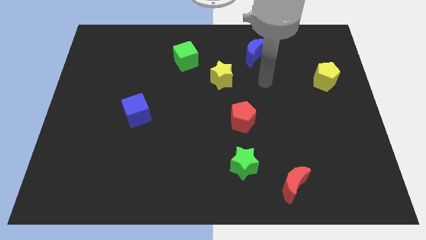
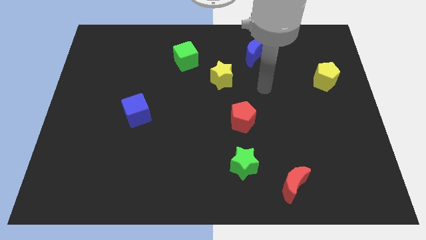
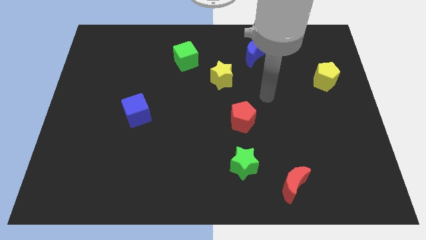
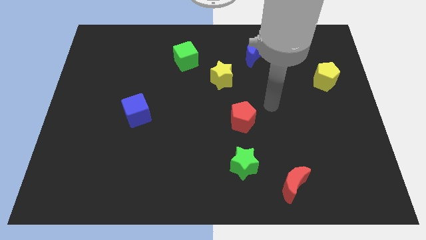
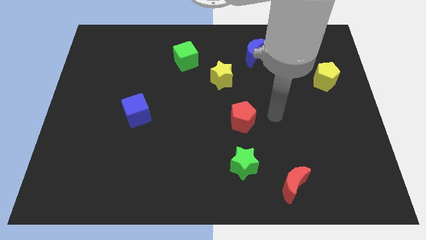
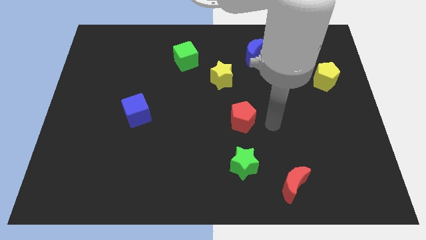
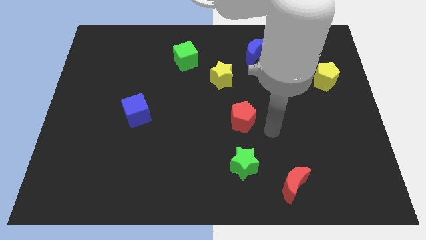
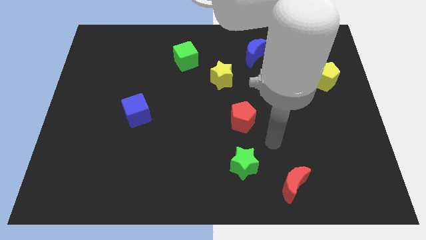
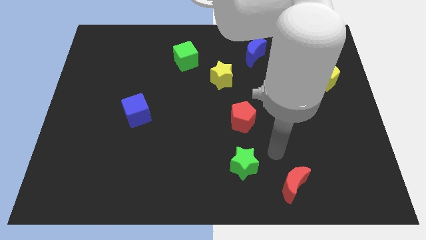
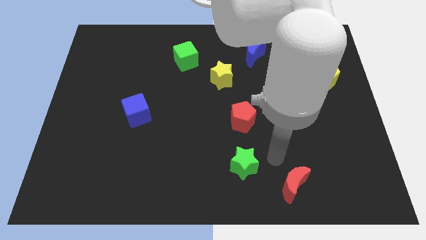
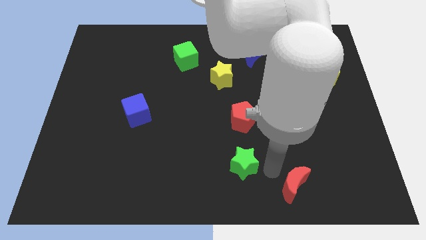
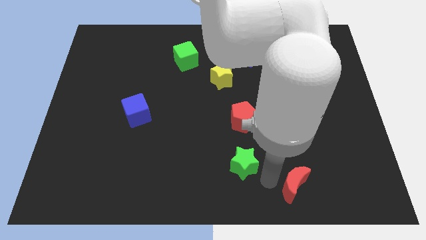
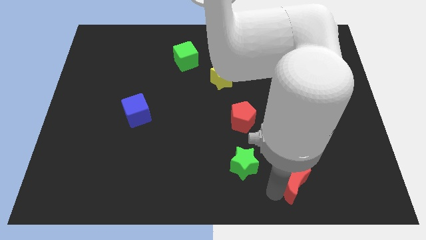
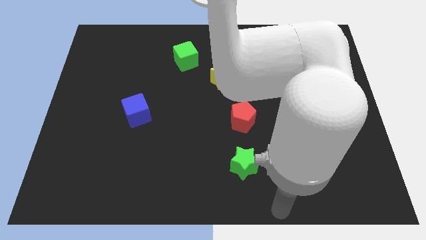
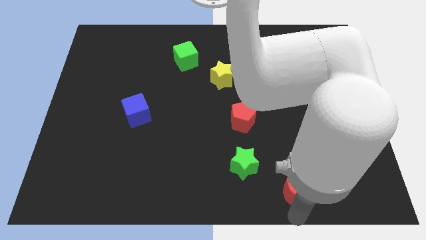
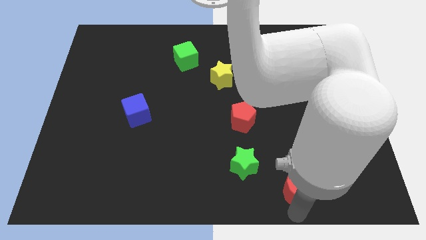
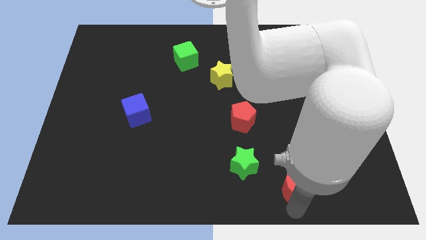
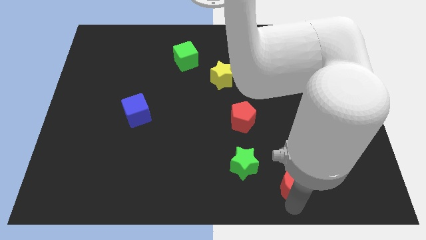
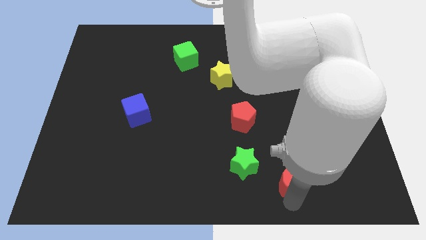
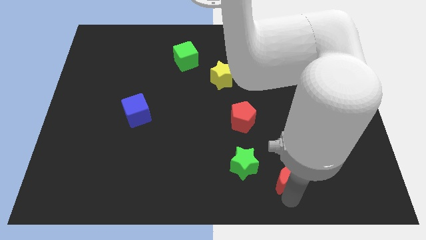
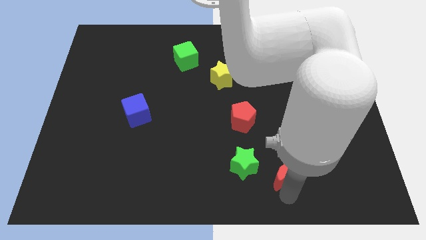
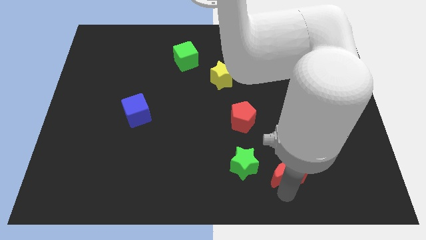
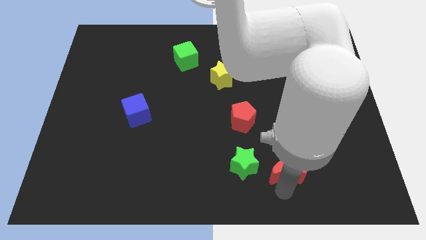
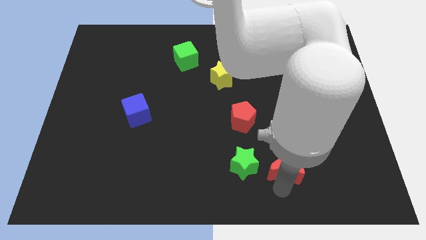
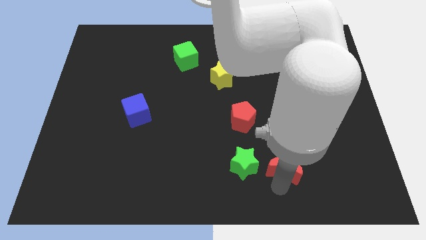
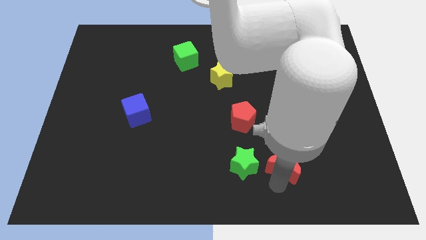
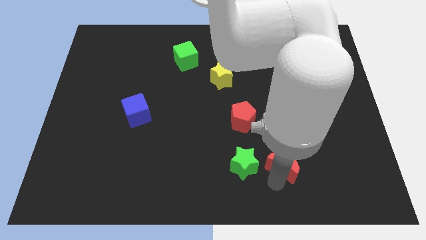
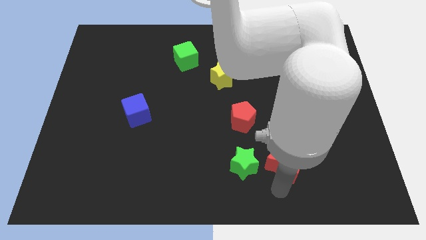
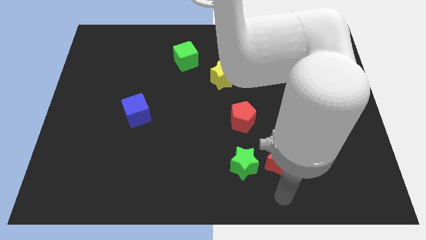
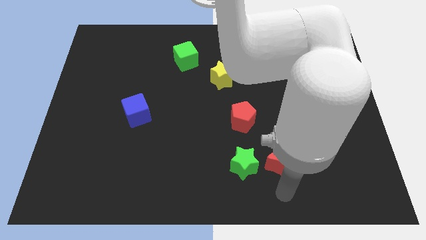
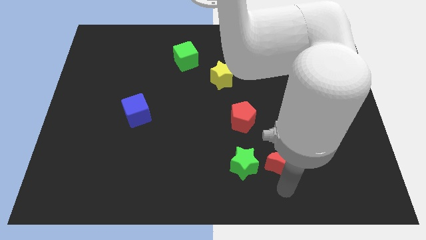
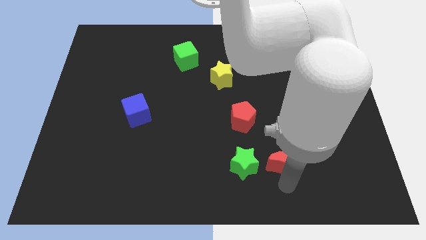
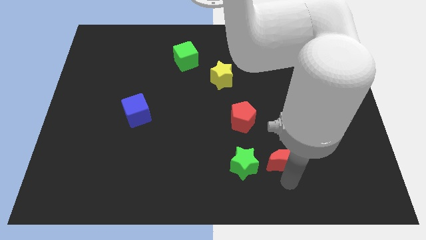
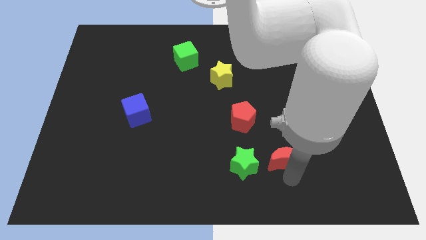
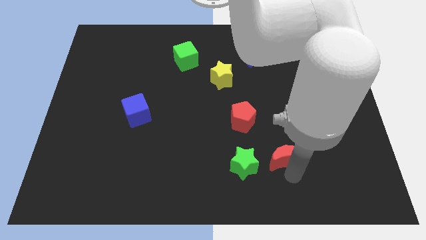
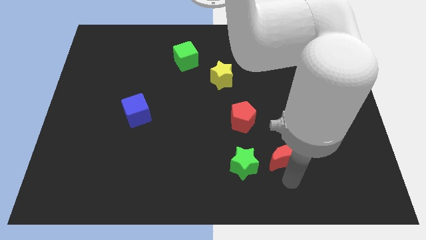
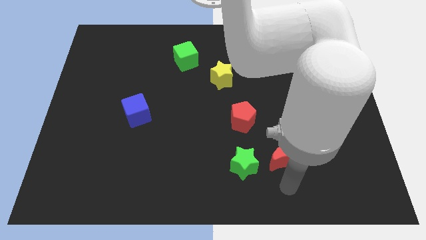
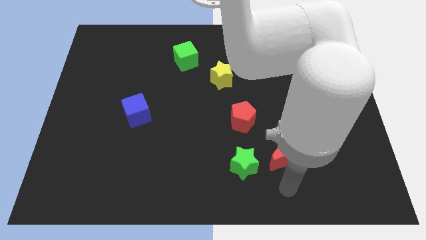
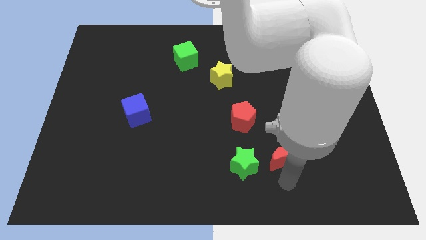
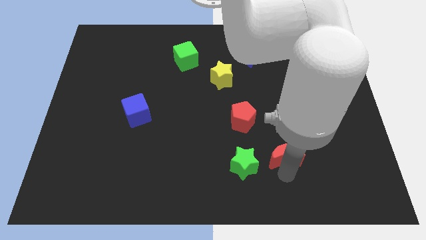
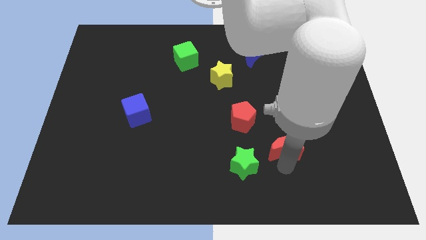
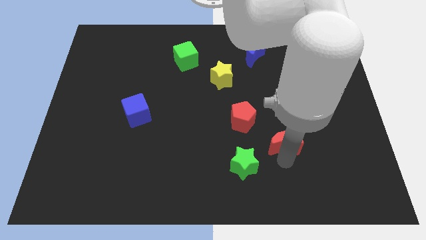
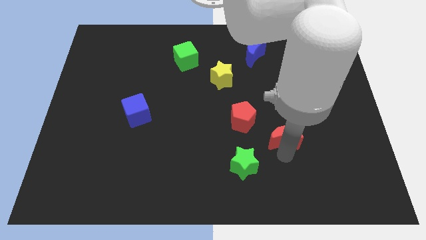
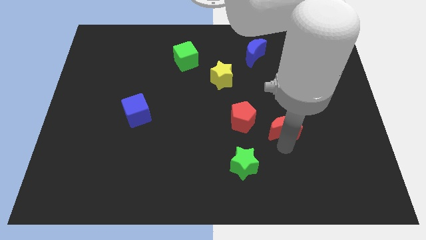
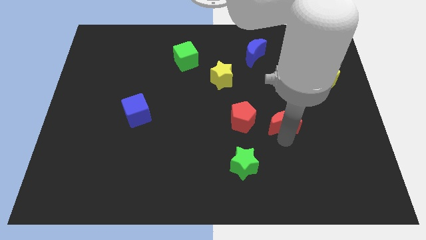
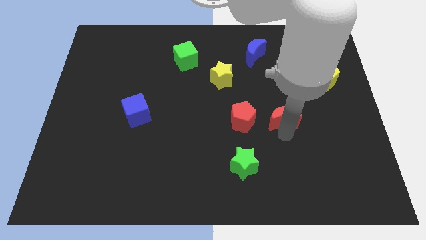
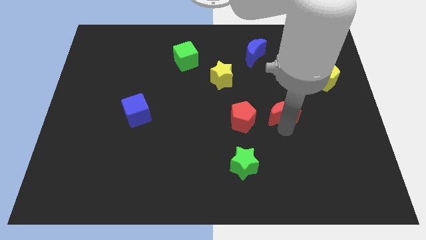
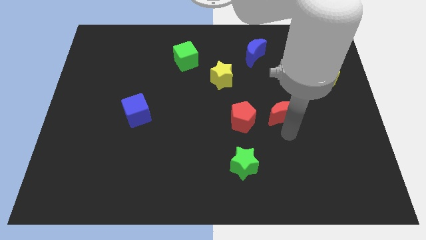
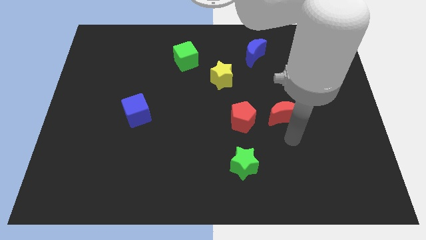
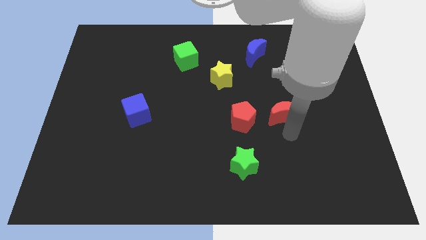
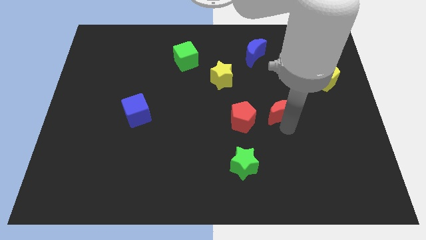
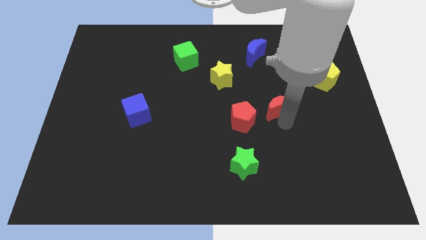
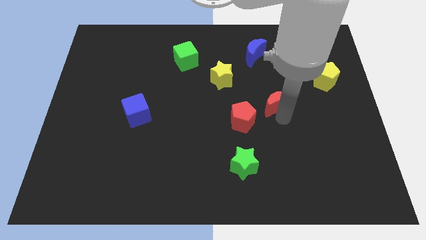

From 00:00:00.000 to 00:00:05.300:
slide the red moon upwards

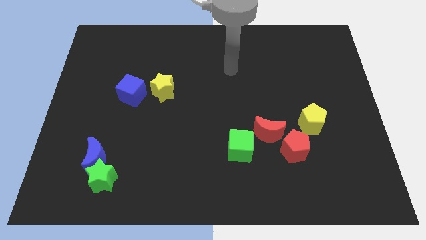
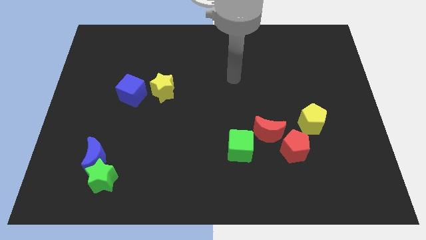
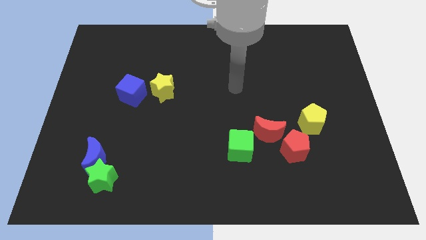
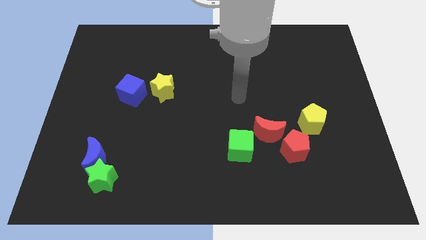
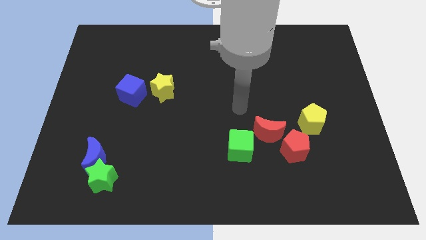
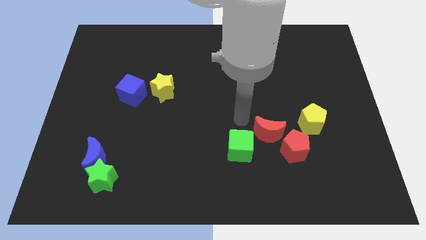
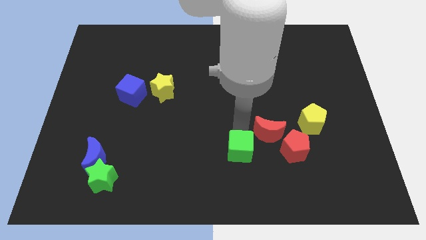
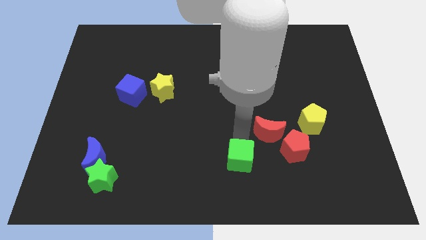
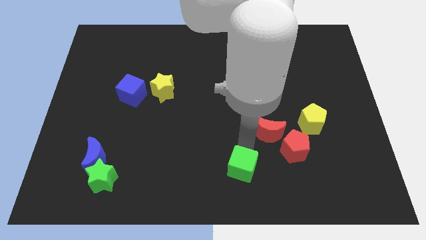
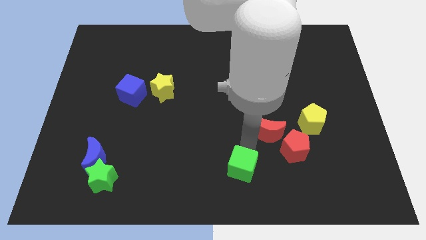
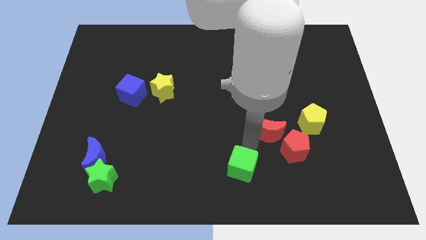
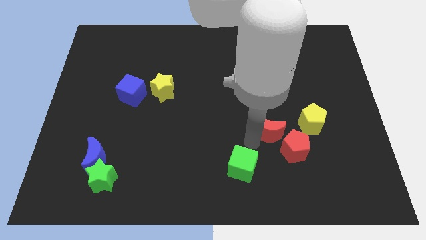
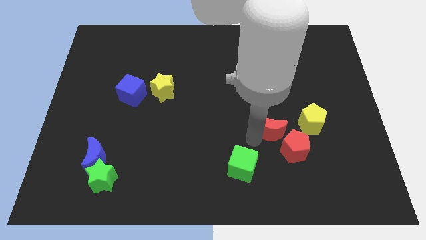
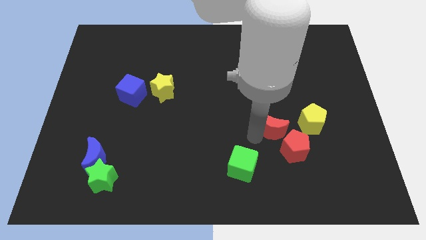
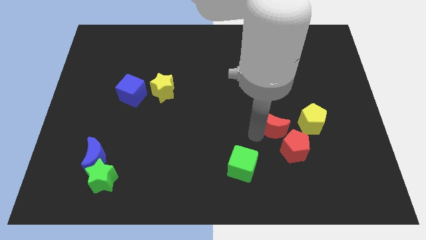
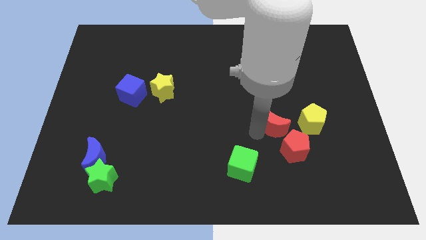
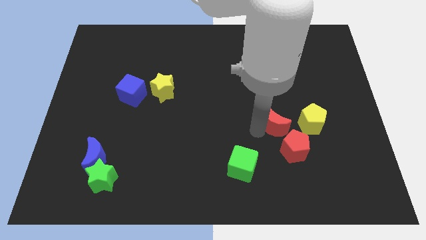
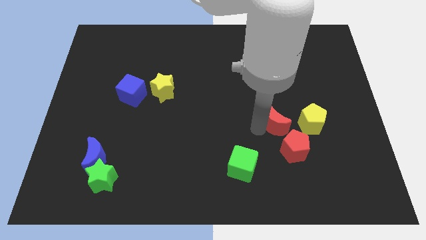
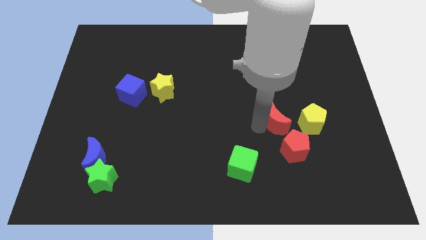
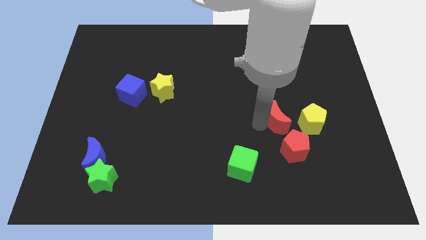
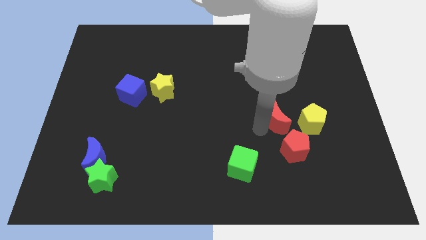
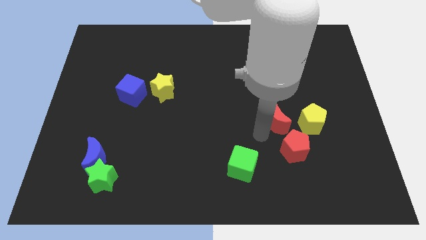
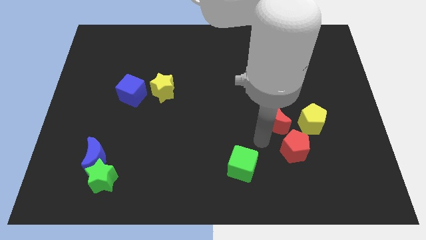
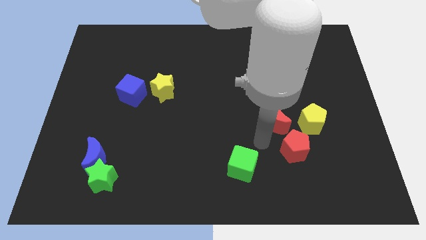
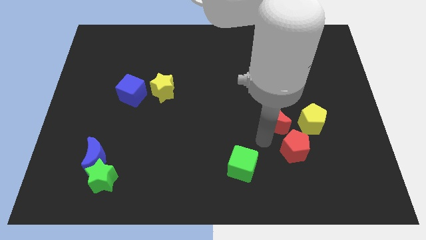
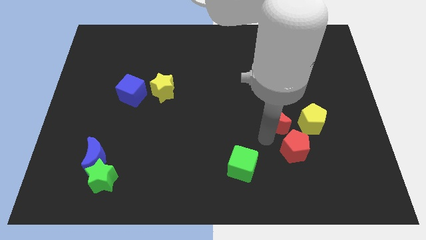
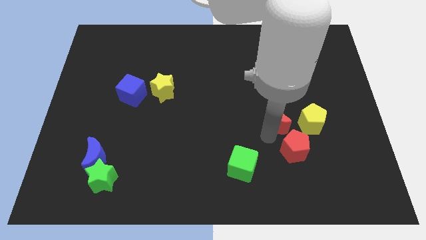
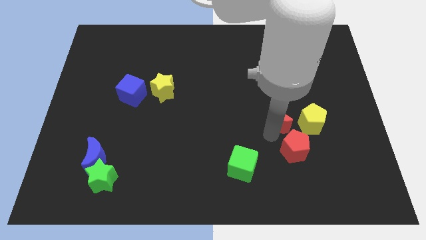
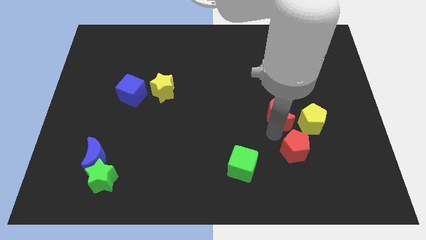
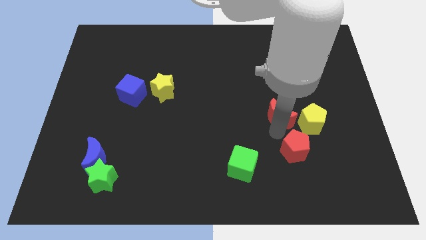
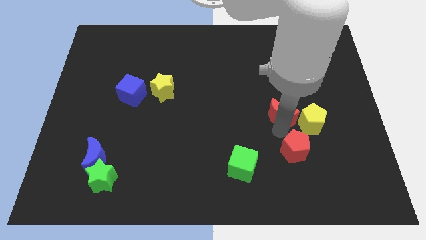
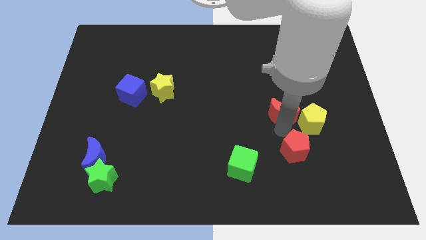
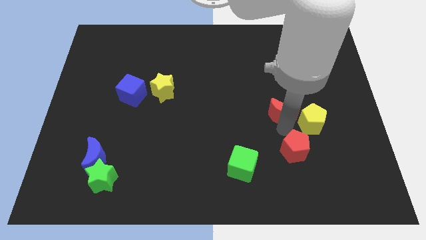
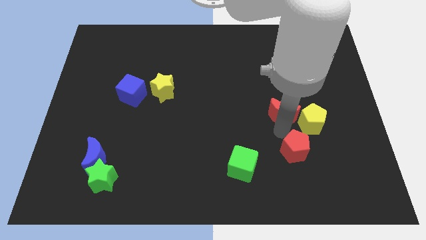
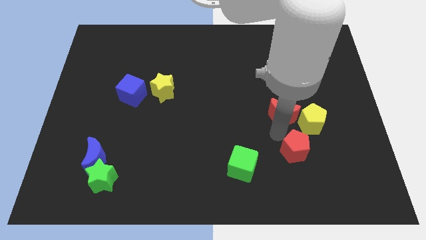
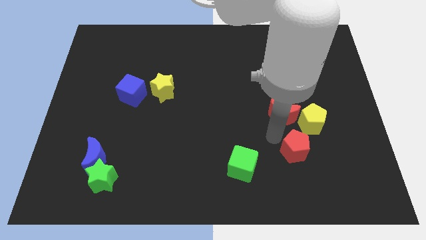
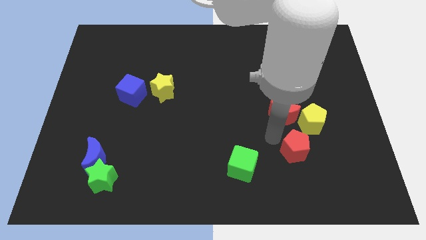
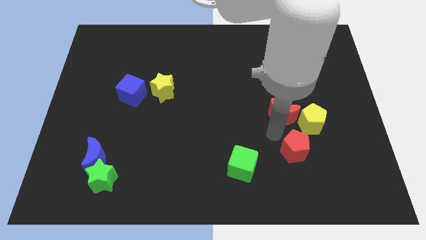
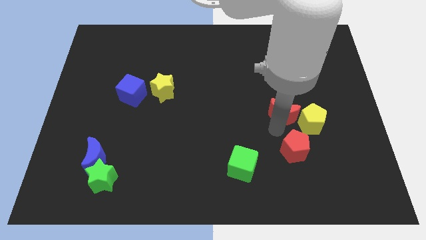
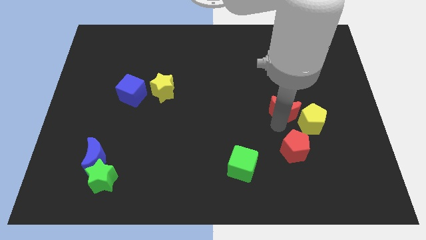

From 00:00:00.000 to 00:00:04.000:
move the red moon upwards and then right somewhat

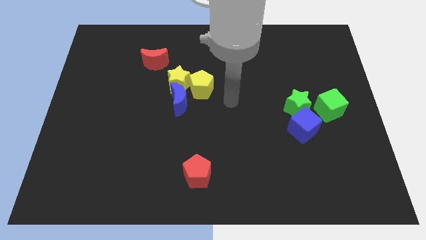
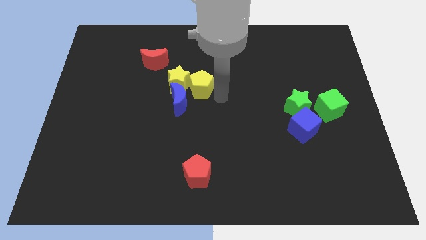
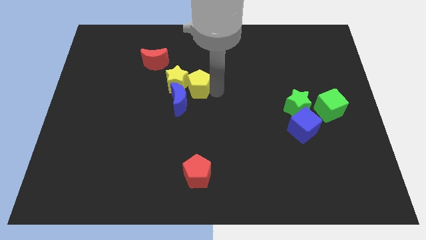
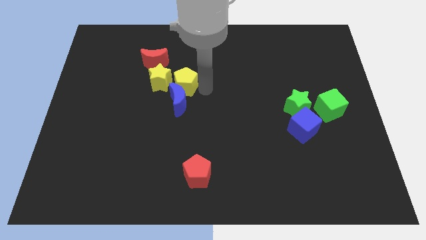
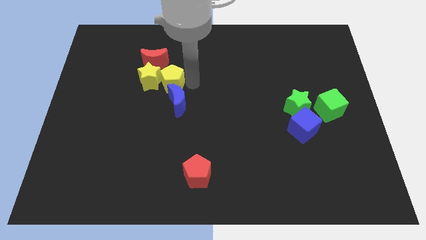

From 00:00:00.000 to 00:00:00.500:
slightly push the yellow star to the left
